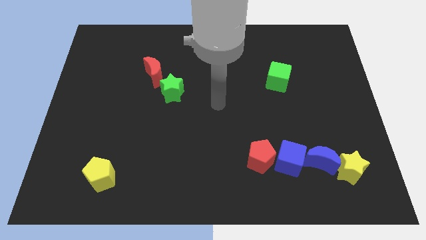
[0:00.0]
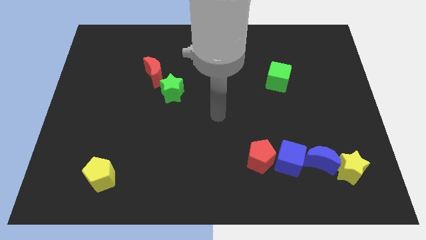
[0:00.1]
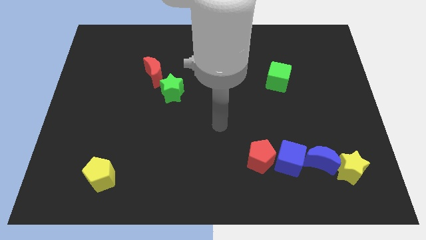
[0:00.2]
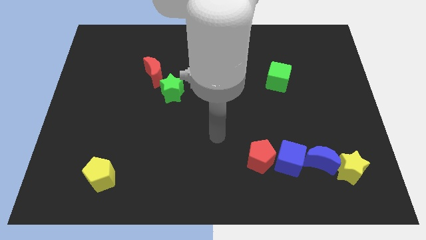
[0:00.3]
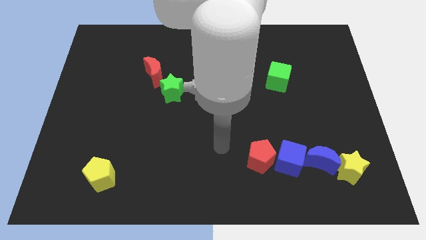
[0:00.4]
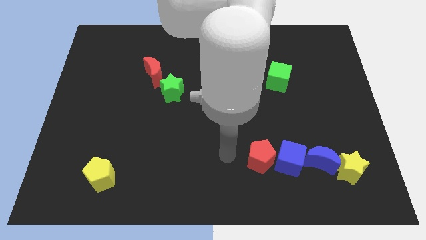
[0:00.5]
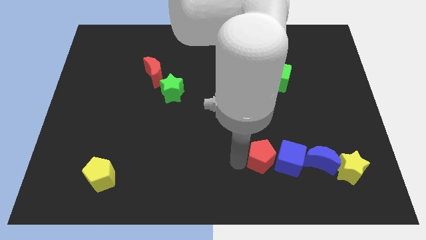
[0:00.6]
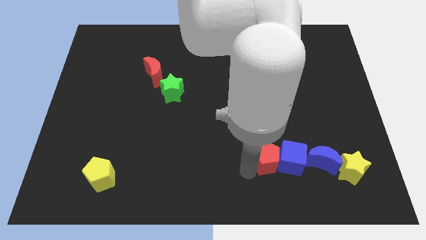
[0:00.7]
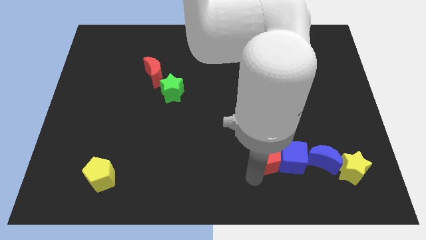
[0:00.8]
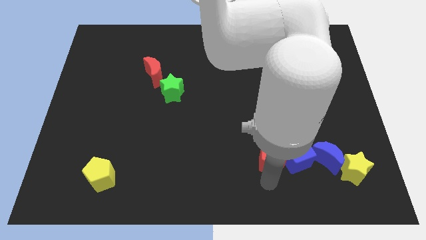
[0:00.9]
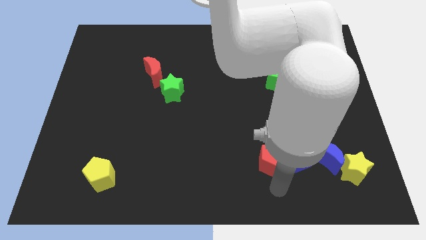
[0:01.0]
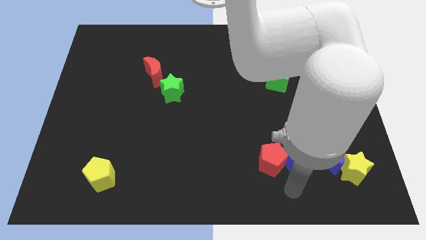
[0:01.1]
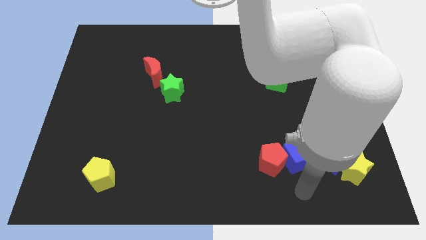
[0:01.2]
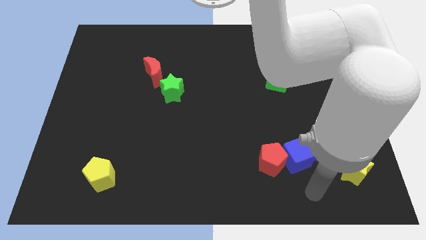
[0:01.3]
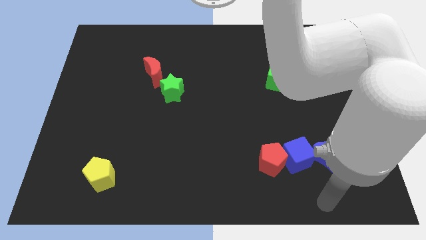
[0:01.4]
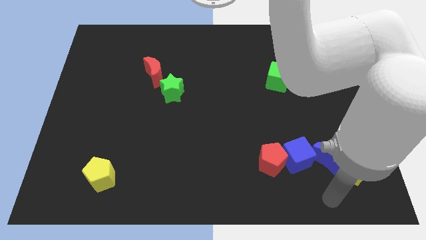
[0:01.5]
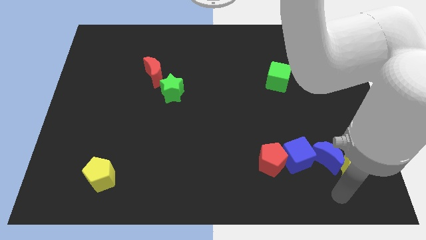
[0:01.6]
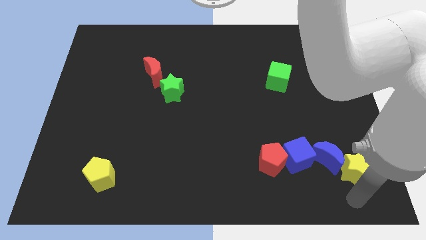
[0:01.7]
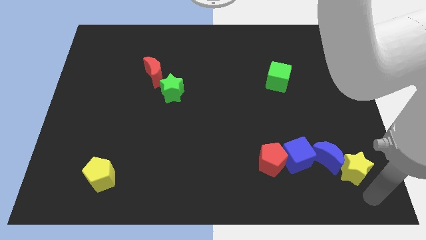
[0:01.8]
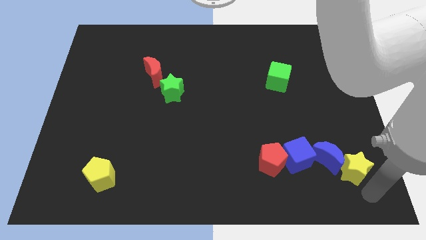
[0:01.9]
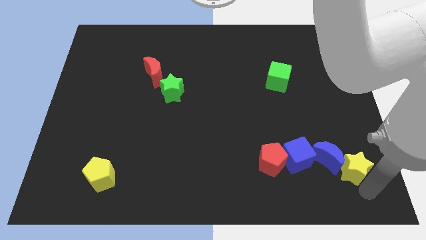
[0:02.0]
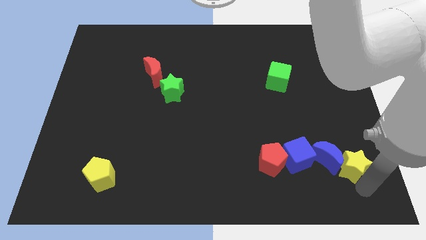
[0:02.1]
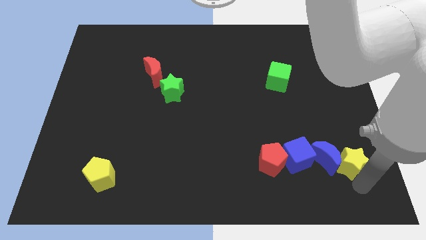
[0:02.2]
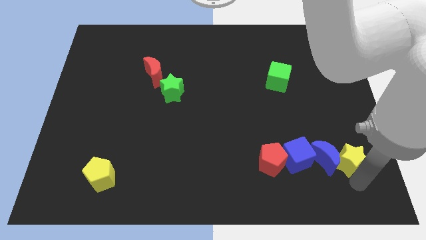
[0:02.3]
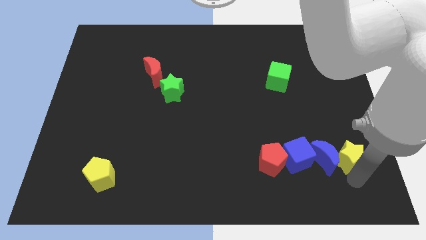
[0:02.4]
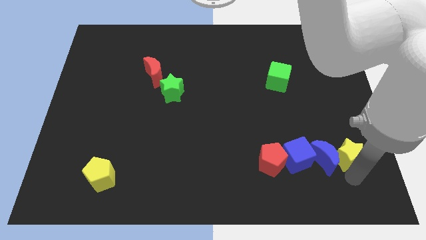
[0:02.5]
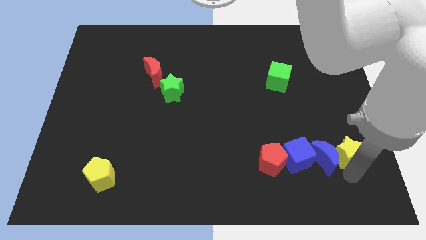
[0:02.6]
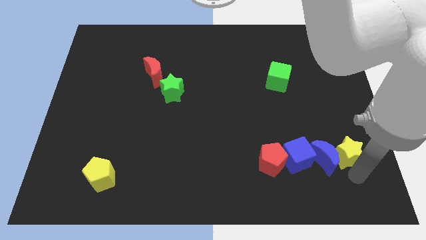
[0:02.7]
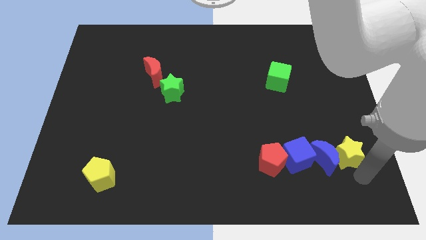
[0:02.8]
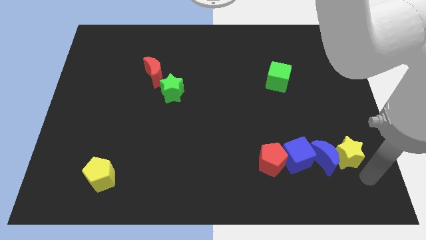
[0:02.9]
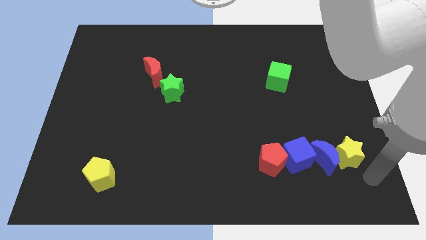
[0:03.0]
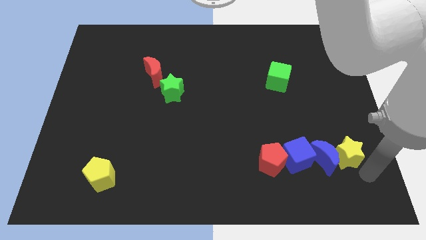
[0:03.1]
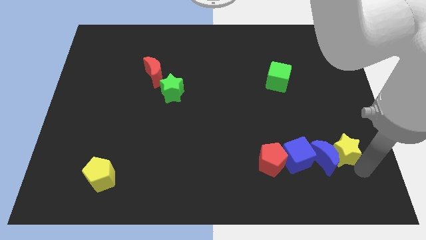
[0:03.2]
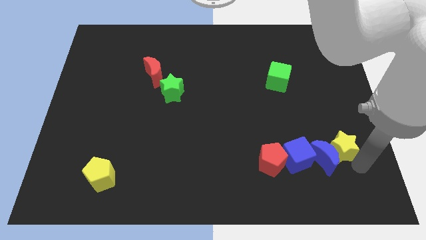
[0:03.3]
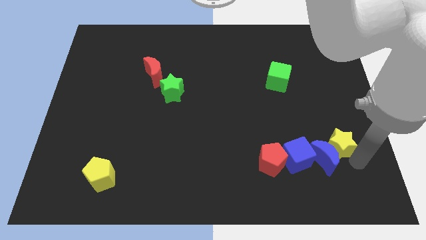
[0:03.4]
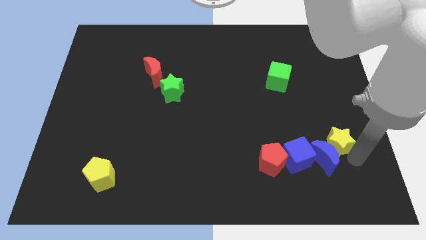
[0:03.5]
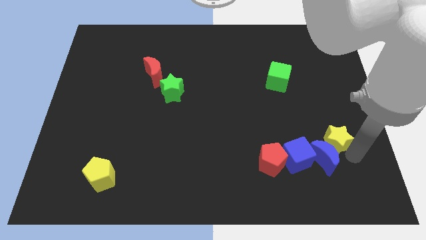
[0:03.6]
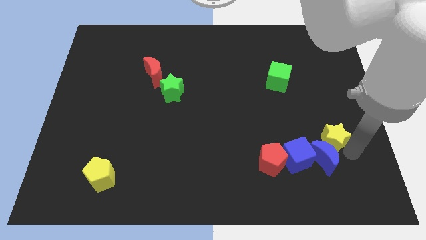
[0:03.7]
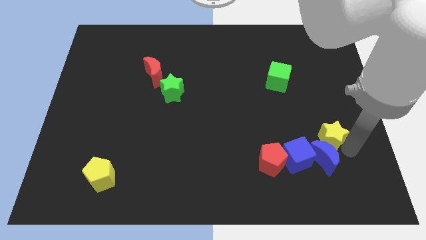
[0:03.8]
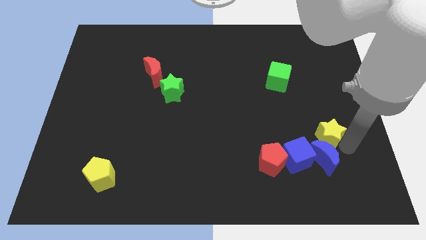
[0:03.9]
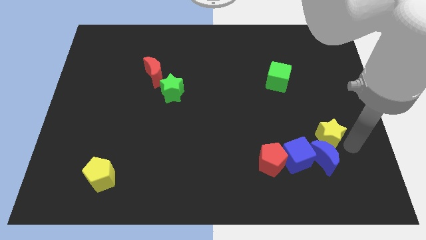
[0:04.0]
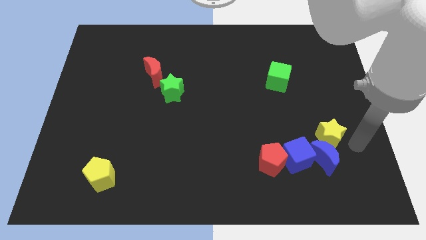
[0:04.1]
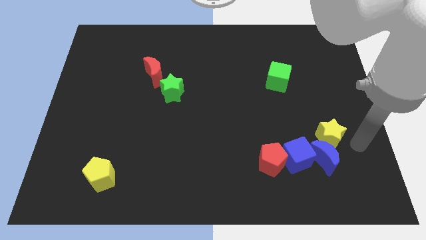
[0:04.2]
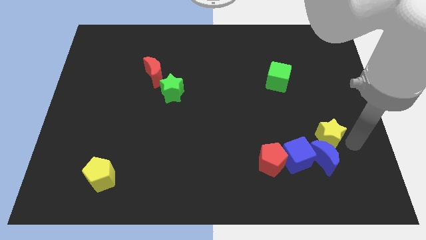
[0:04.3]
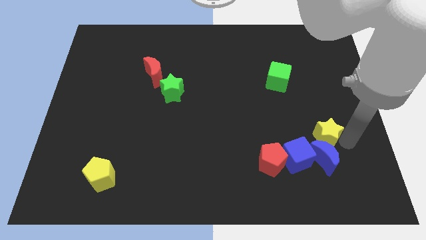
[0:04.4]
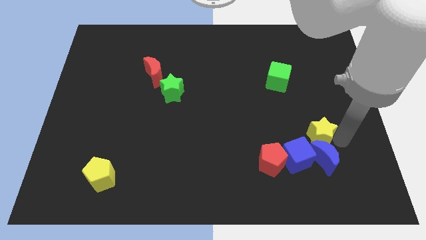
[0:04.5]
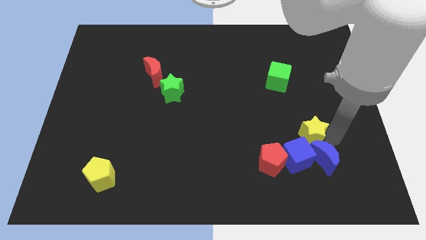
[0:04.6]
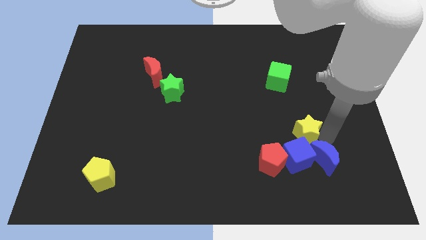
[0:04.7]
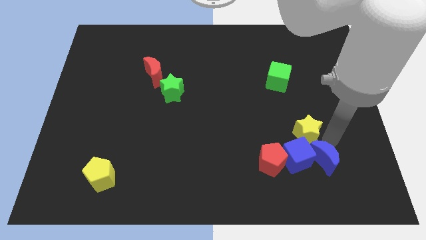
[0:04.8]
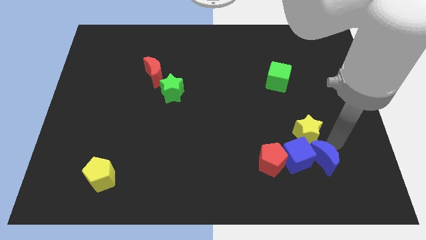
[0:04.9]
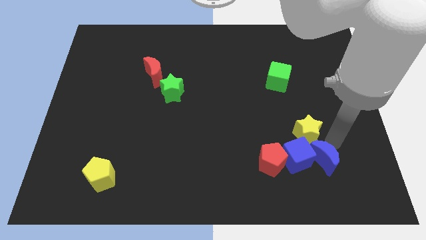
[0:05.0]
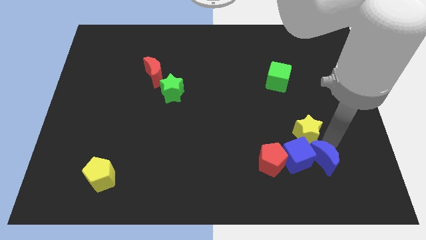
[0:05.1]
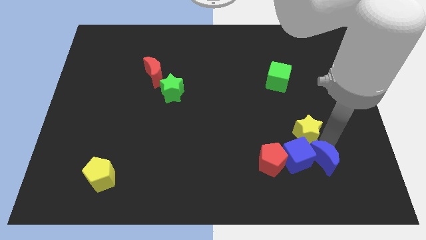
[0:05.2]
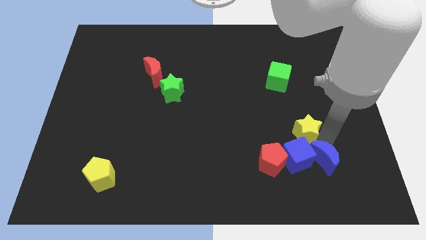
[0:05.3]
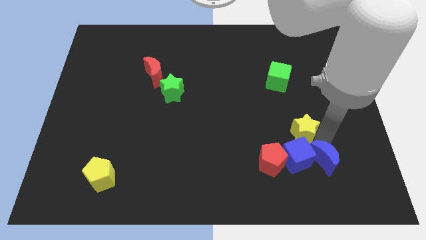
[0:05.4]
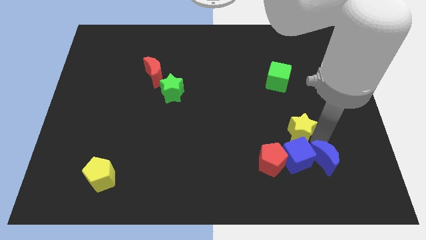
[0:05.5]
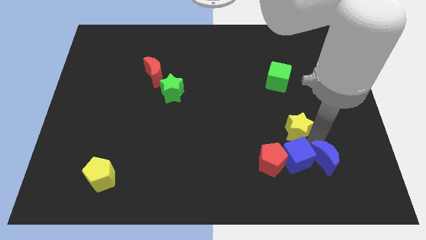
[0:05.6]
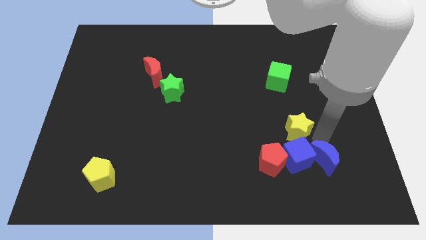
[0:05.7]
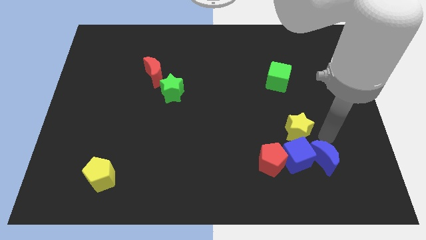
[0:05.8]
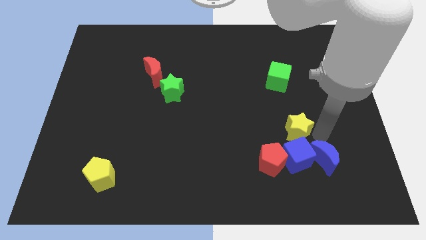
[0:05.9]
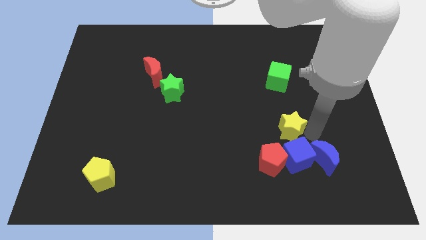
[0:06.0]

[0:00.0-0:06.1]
push the yellow star above the red pentagon

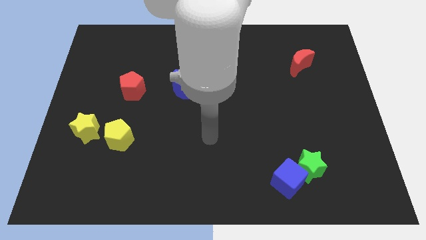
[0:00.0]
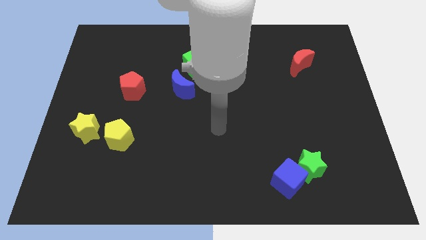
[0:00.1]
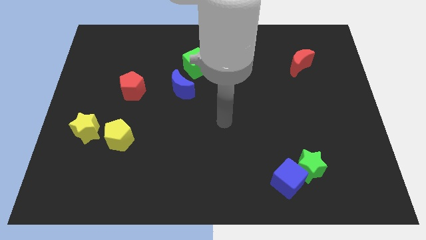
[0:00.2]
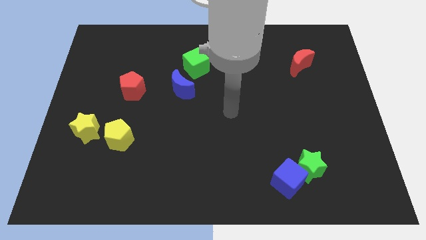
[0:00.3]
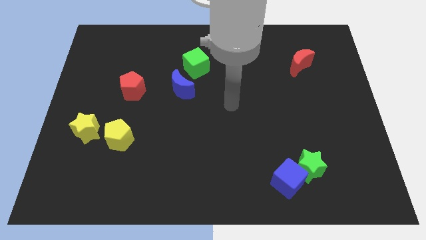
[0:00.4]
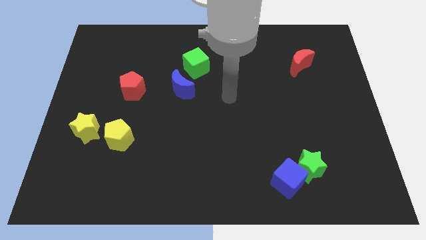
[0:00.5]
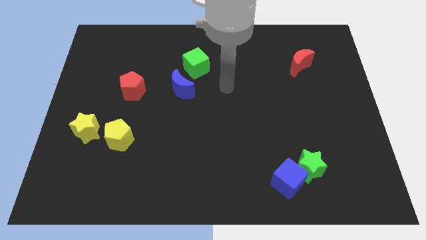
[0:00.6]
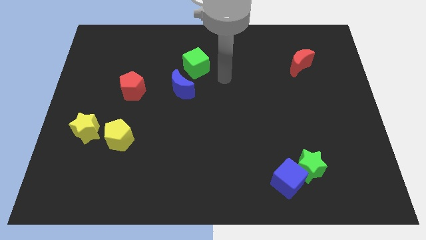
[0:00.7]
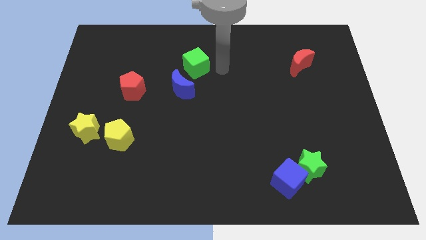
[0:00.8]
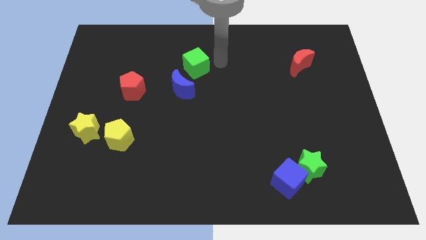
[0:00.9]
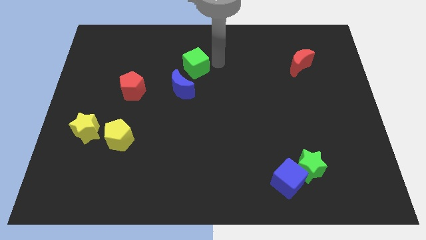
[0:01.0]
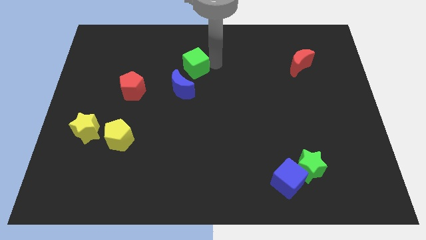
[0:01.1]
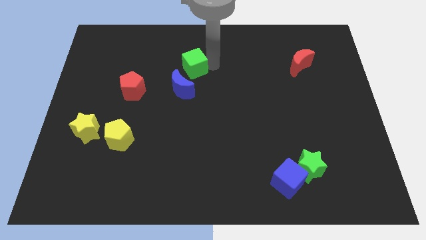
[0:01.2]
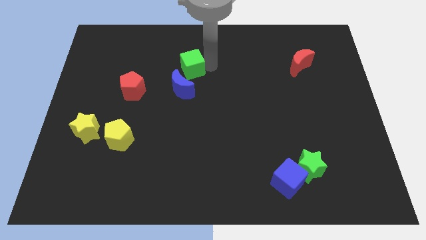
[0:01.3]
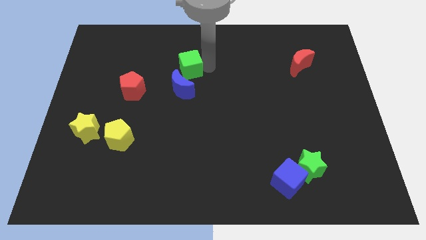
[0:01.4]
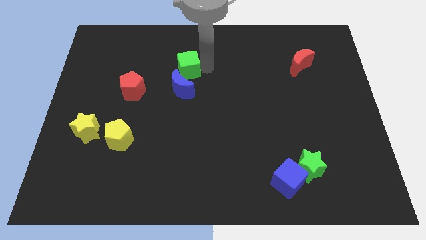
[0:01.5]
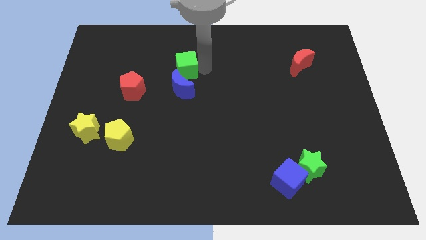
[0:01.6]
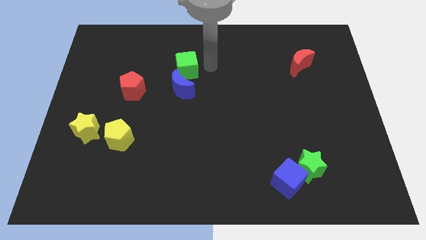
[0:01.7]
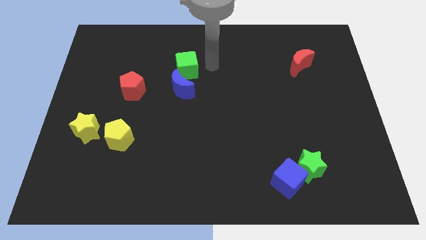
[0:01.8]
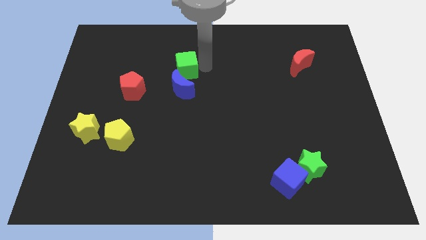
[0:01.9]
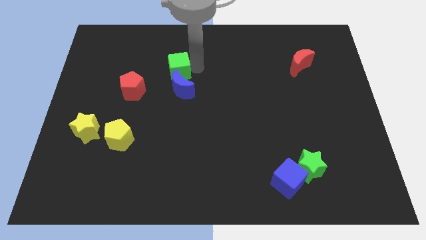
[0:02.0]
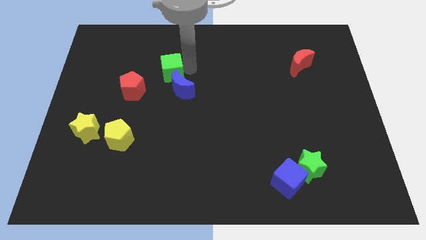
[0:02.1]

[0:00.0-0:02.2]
slide the green cube diagonally up and to the right of the red pentagon
